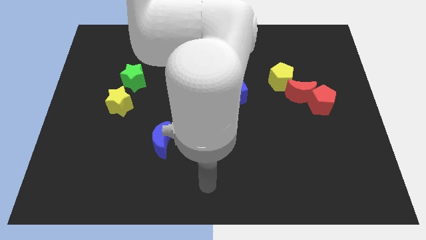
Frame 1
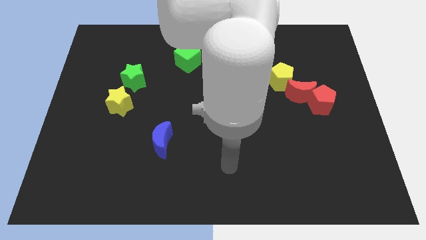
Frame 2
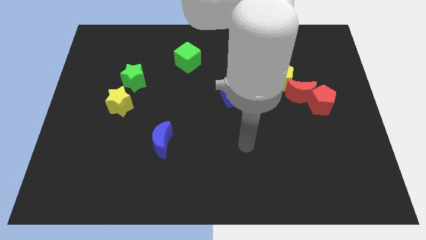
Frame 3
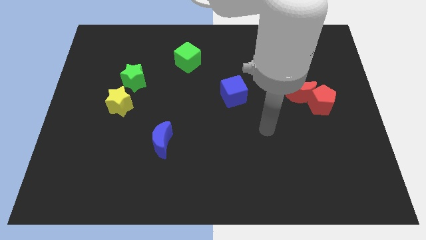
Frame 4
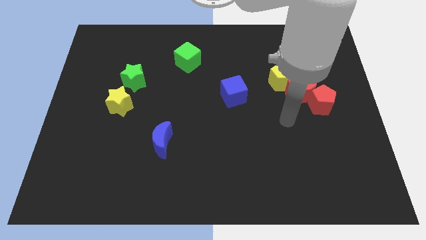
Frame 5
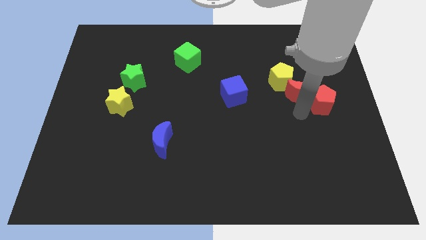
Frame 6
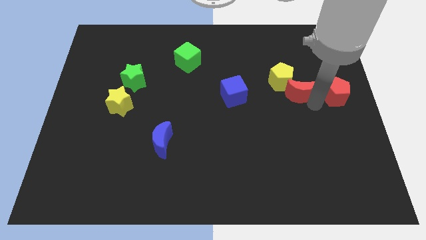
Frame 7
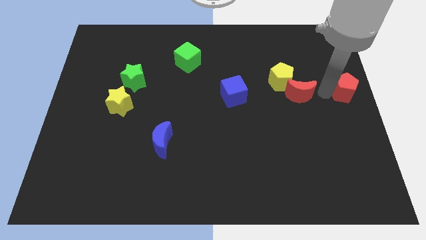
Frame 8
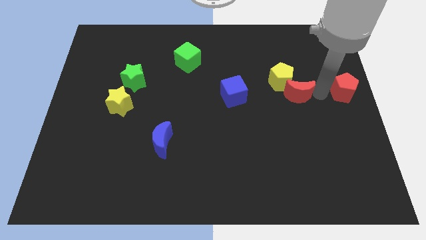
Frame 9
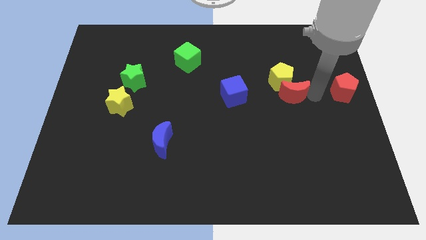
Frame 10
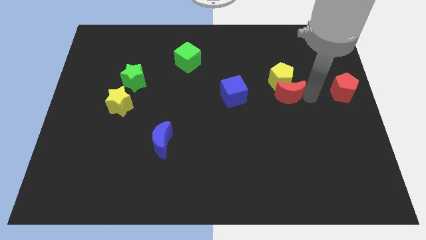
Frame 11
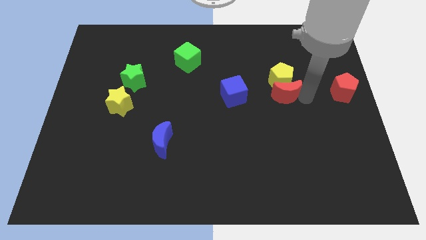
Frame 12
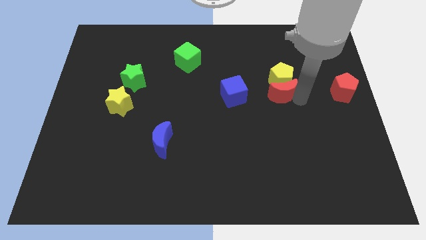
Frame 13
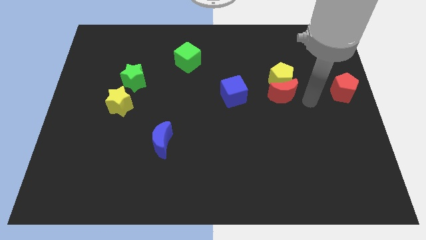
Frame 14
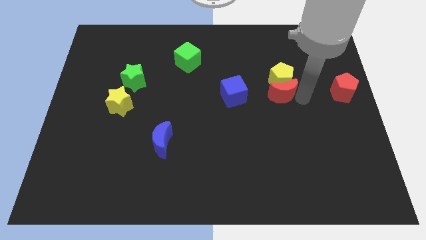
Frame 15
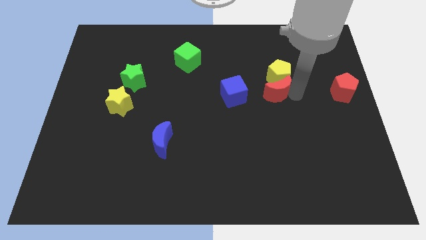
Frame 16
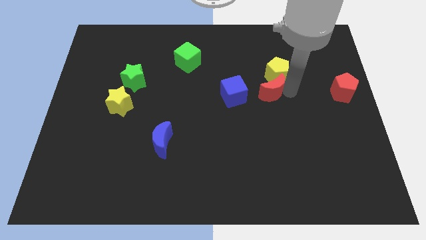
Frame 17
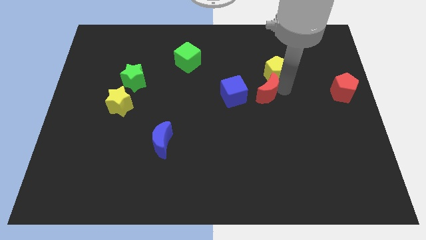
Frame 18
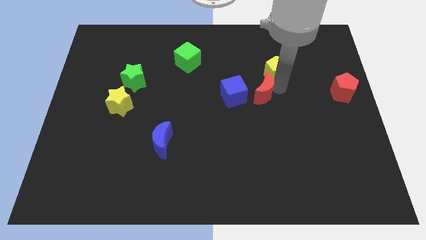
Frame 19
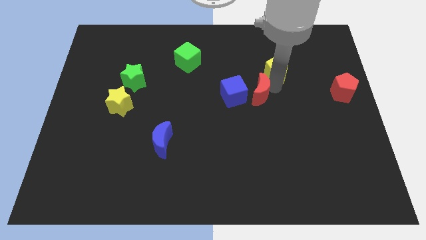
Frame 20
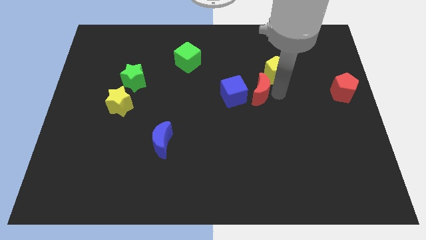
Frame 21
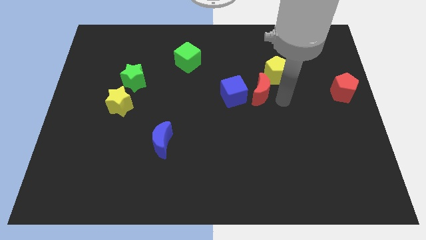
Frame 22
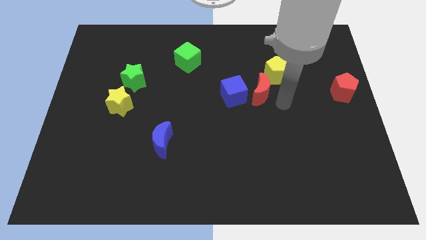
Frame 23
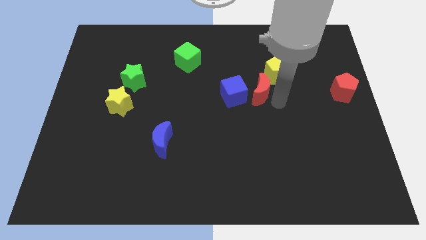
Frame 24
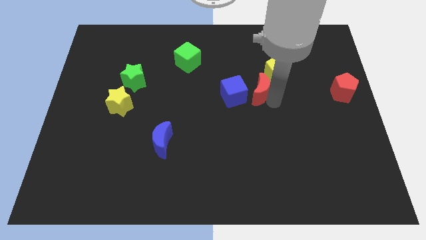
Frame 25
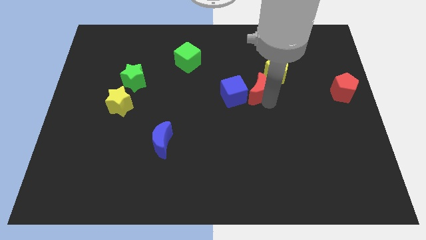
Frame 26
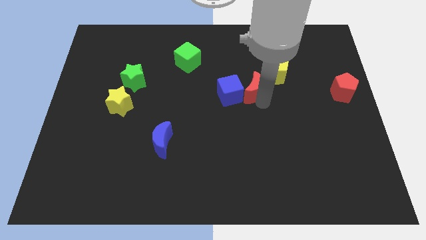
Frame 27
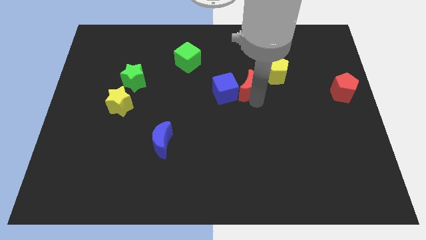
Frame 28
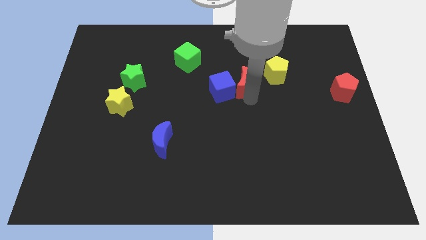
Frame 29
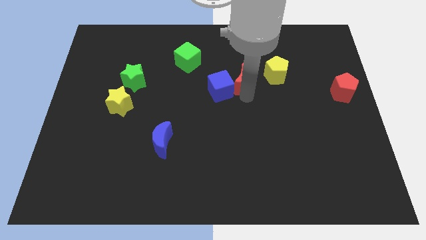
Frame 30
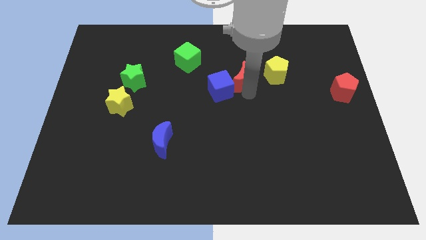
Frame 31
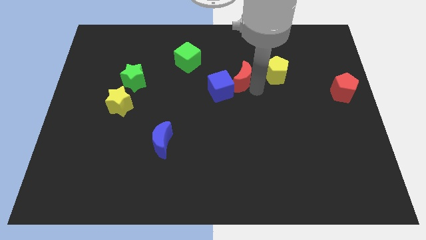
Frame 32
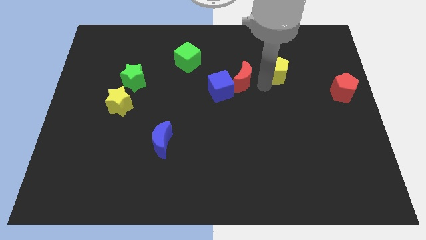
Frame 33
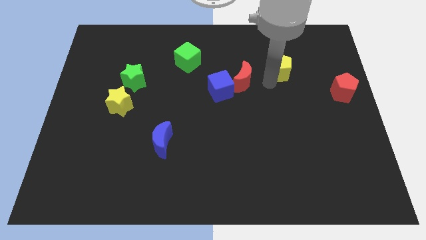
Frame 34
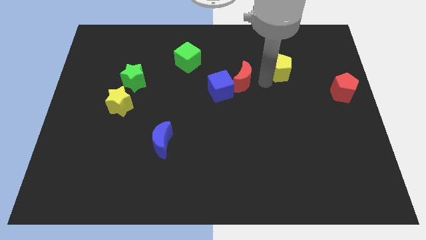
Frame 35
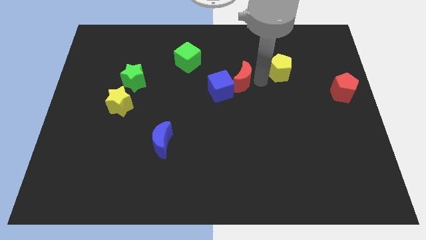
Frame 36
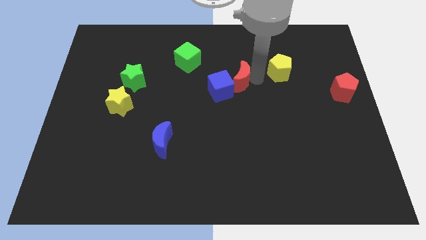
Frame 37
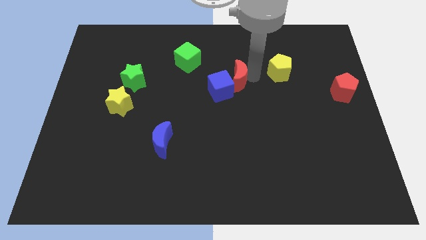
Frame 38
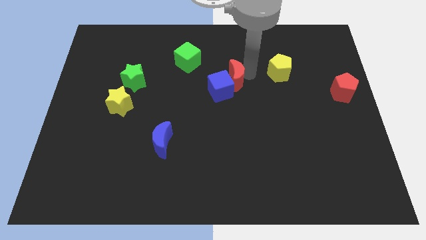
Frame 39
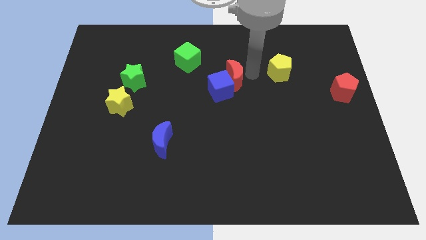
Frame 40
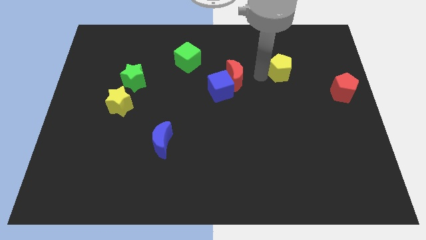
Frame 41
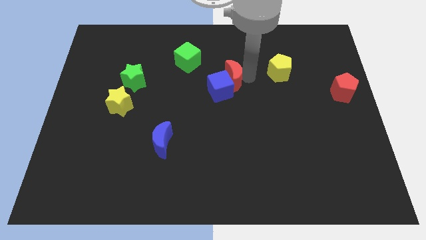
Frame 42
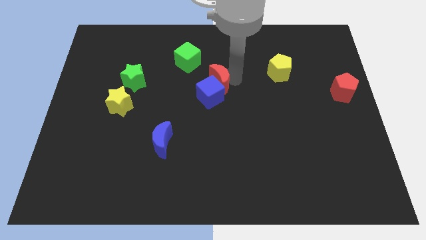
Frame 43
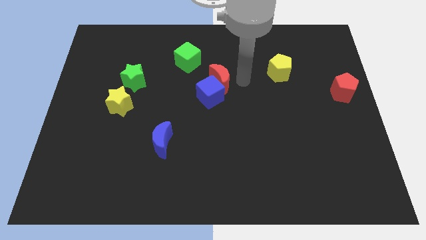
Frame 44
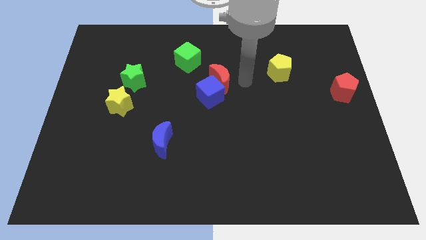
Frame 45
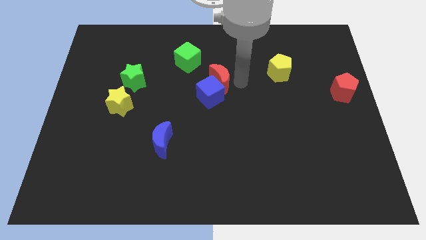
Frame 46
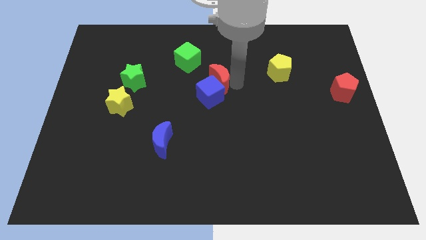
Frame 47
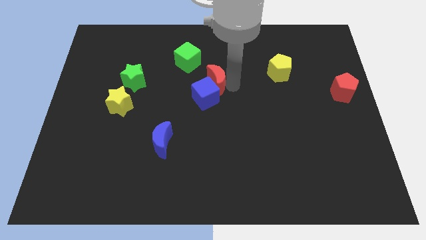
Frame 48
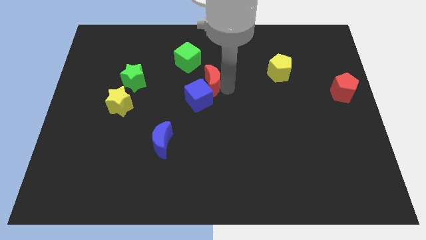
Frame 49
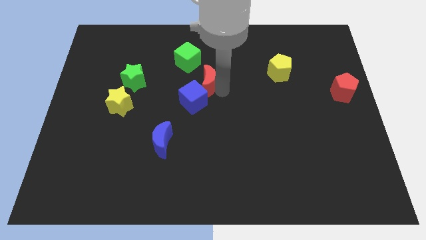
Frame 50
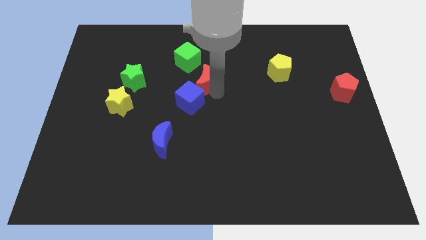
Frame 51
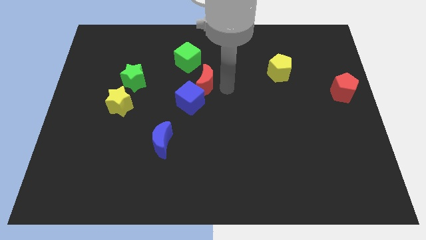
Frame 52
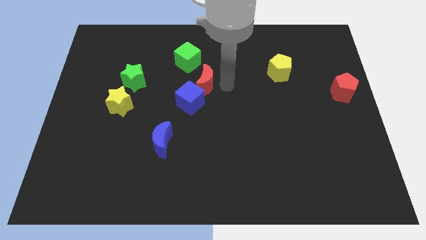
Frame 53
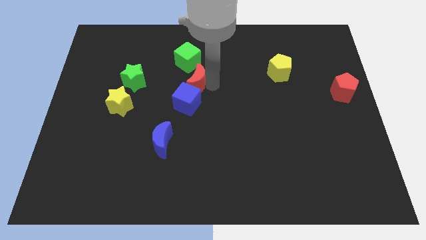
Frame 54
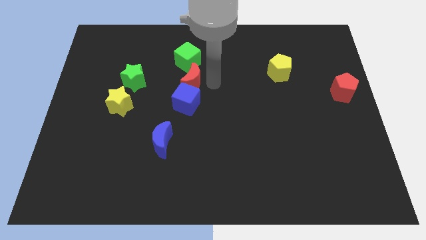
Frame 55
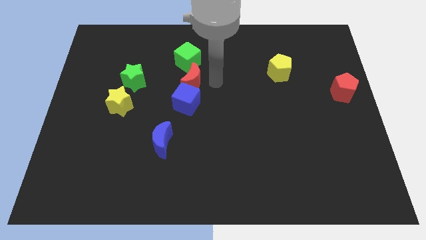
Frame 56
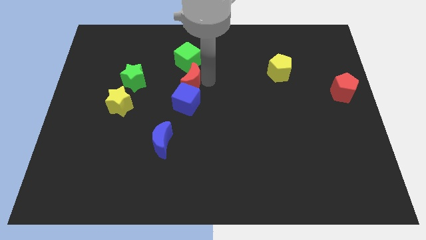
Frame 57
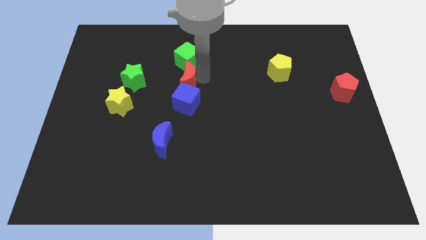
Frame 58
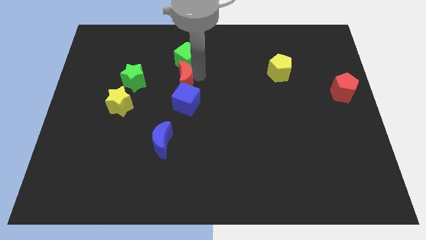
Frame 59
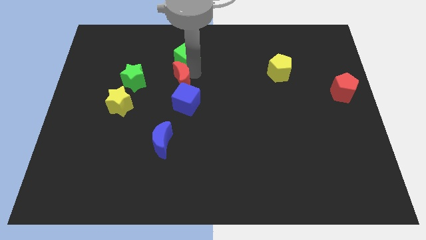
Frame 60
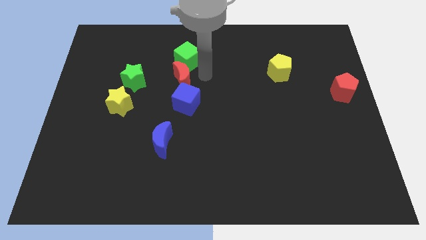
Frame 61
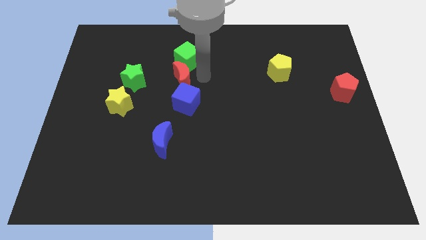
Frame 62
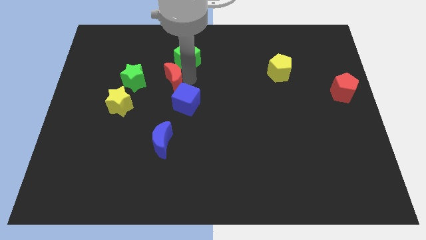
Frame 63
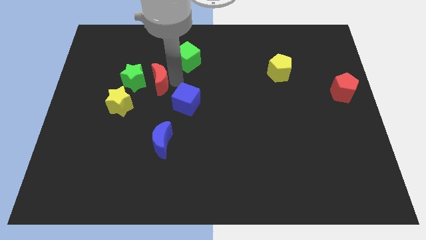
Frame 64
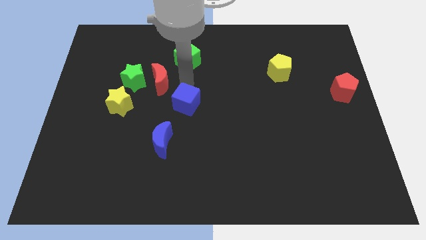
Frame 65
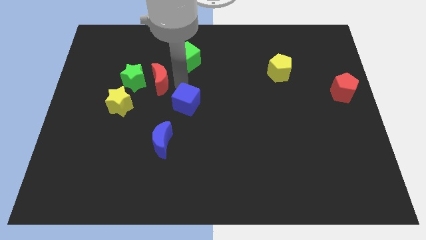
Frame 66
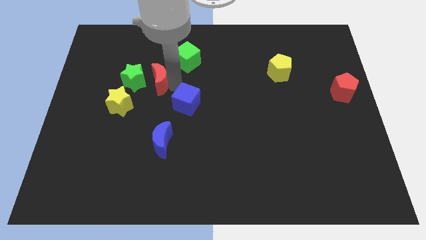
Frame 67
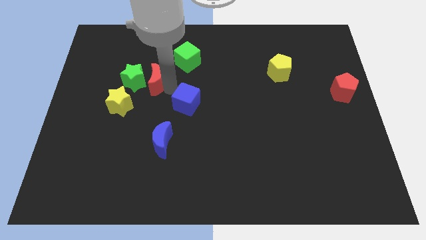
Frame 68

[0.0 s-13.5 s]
move the red moon to the green star
